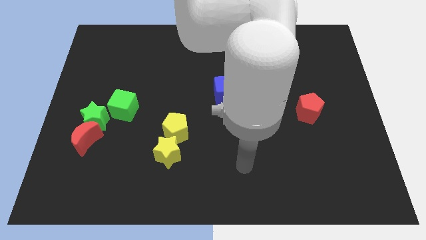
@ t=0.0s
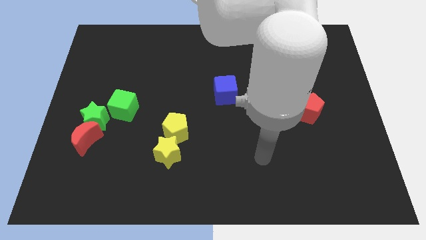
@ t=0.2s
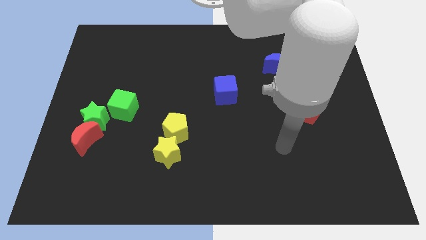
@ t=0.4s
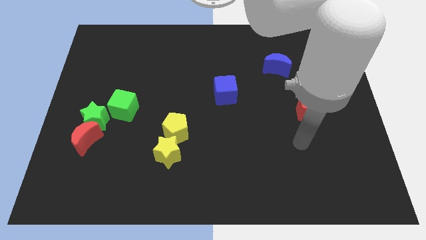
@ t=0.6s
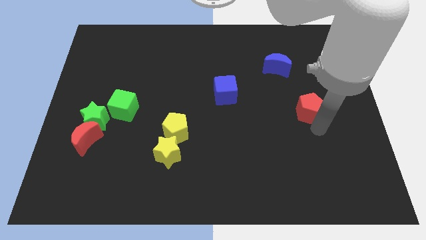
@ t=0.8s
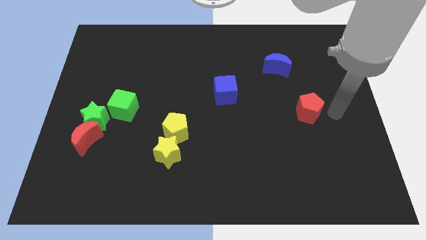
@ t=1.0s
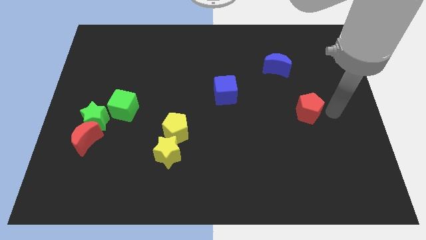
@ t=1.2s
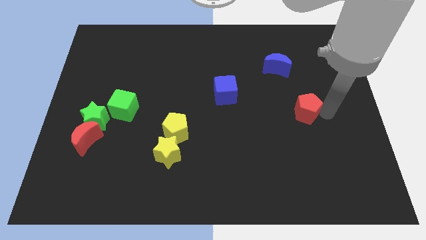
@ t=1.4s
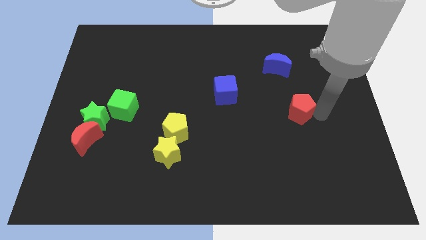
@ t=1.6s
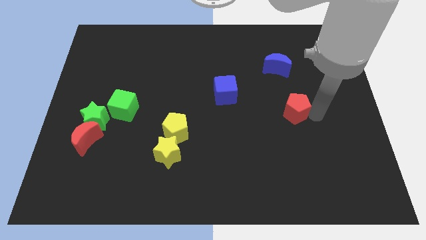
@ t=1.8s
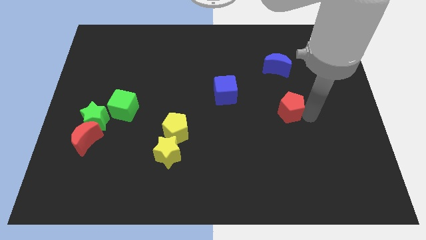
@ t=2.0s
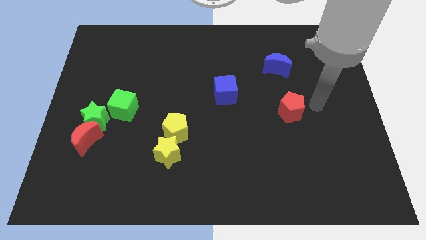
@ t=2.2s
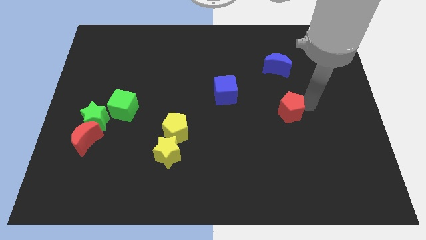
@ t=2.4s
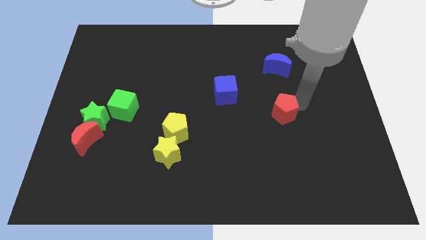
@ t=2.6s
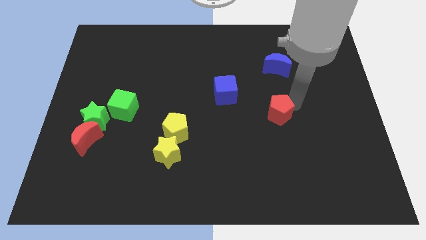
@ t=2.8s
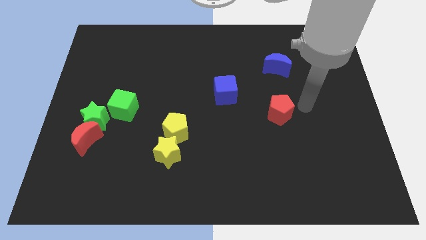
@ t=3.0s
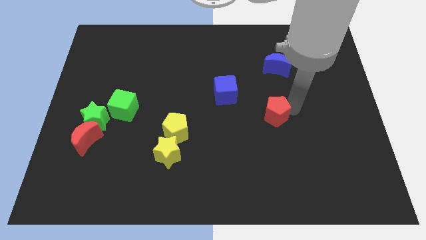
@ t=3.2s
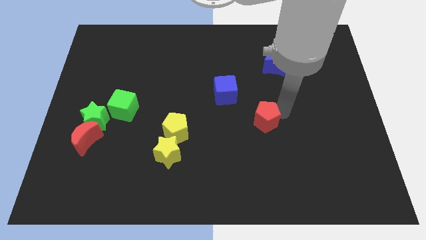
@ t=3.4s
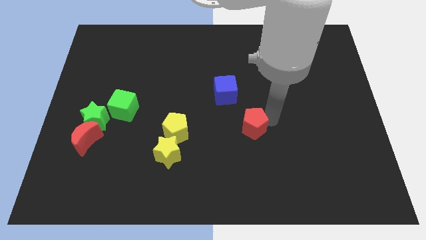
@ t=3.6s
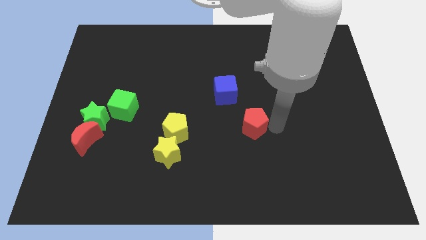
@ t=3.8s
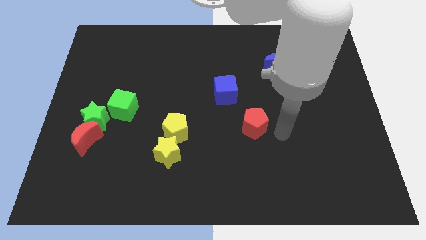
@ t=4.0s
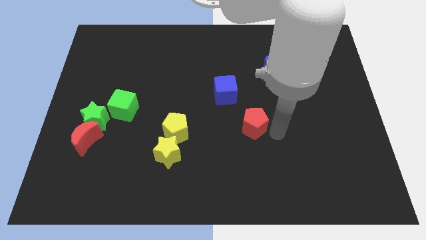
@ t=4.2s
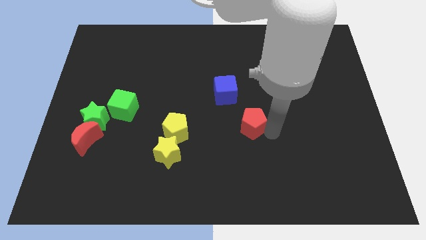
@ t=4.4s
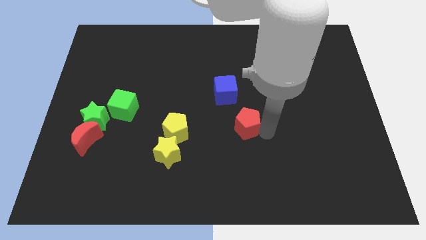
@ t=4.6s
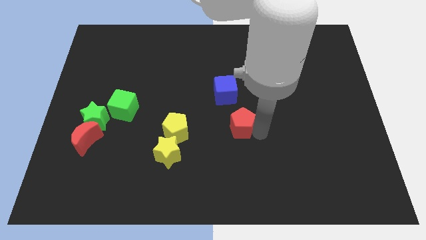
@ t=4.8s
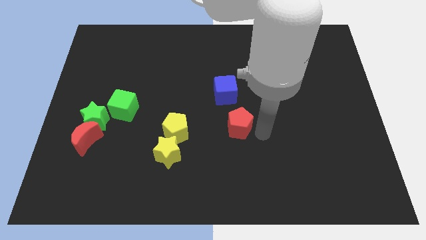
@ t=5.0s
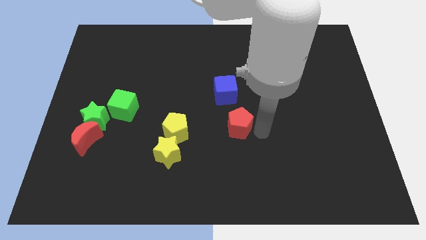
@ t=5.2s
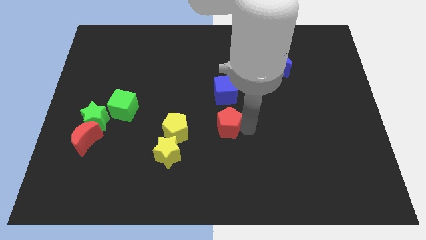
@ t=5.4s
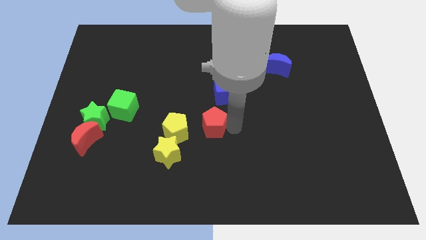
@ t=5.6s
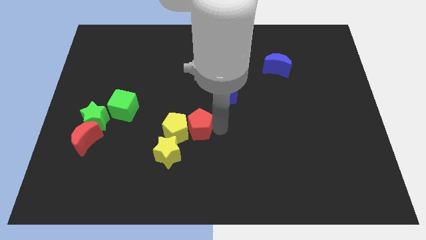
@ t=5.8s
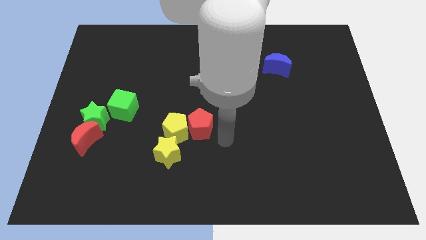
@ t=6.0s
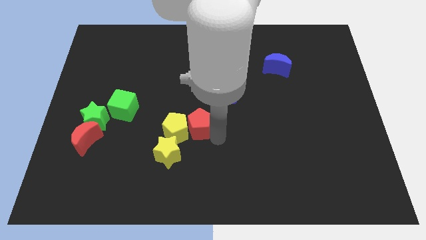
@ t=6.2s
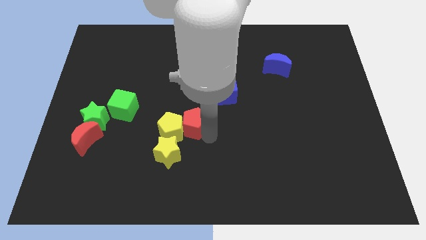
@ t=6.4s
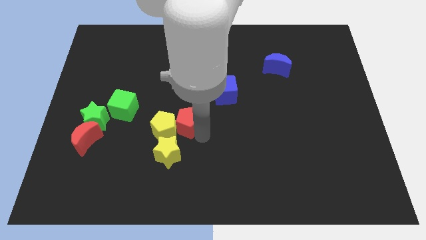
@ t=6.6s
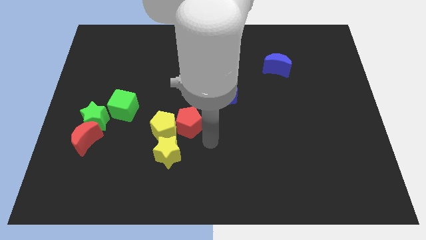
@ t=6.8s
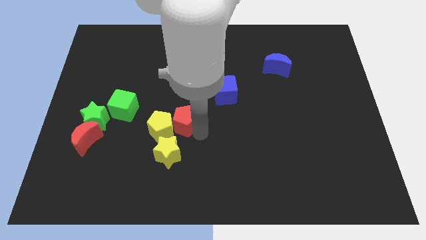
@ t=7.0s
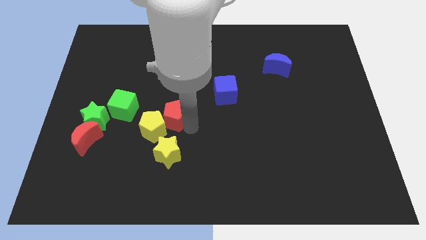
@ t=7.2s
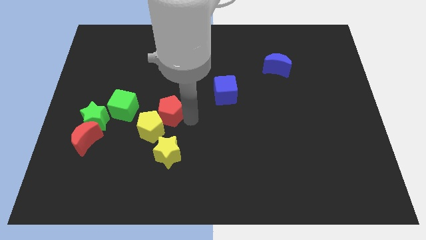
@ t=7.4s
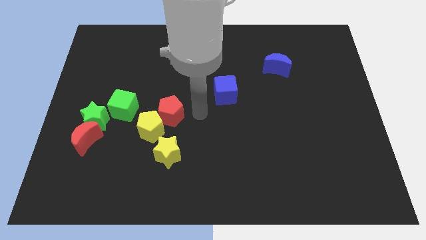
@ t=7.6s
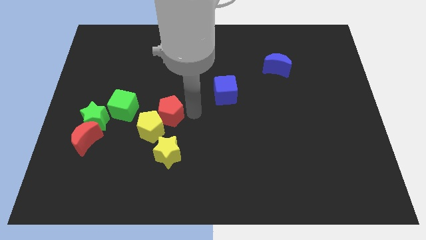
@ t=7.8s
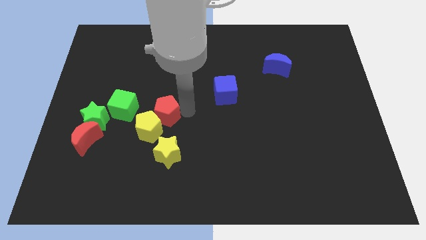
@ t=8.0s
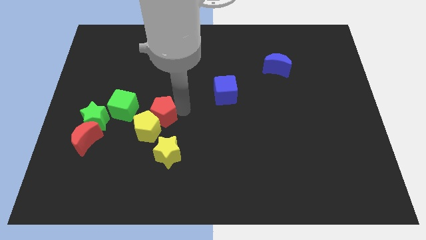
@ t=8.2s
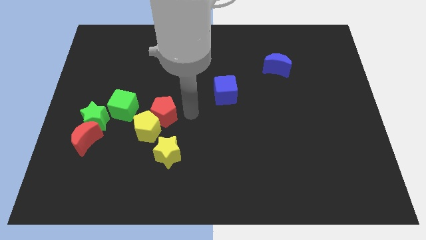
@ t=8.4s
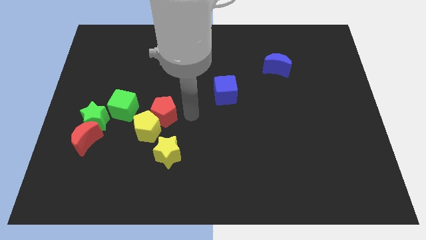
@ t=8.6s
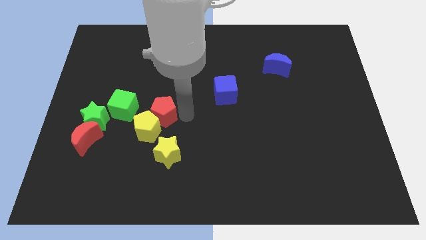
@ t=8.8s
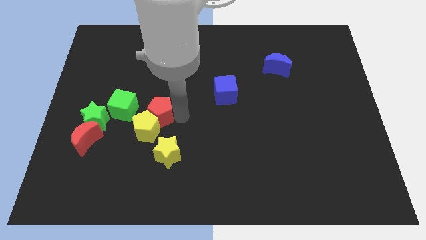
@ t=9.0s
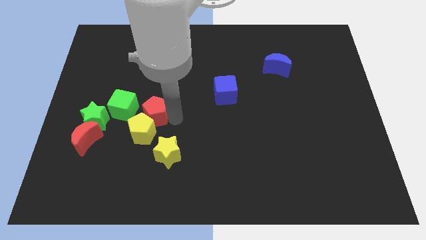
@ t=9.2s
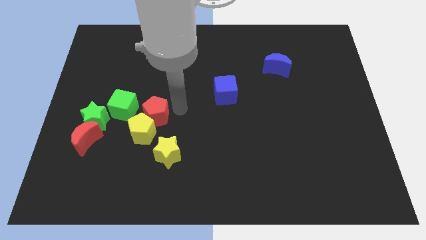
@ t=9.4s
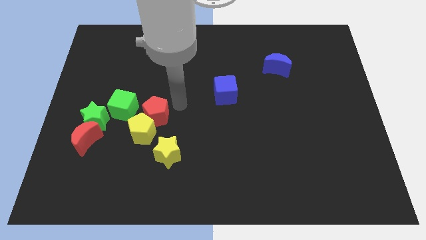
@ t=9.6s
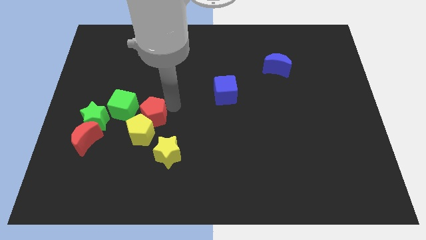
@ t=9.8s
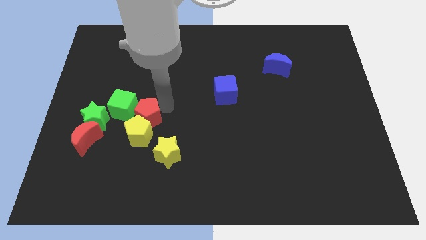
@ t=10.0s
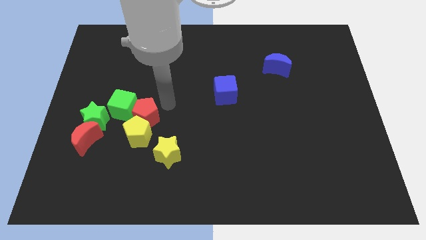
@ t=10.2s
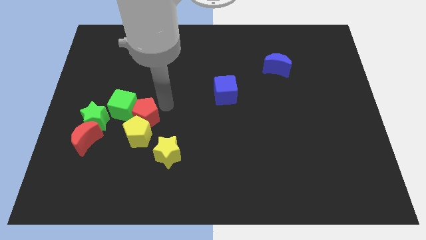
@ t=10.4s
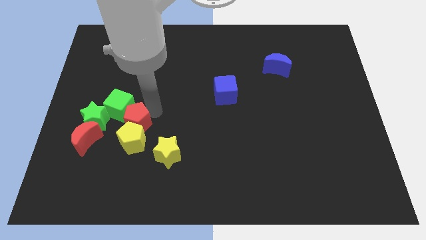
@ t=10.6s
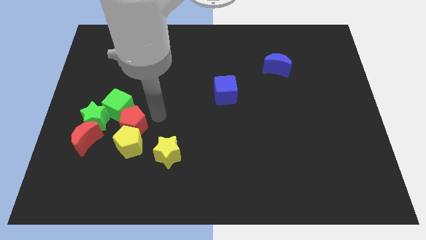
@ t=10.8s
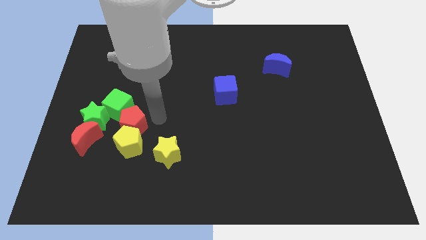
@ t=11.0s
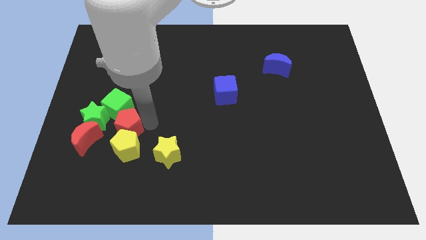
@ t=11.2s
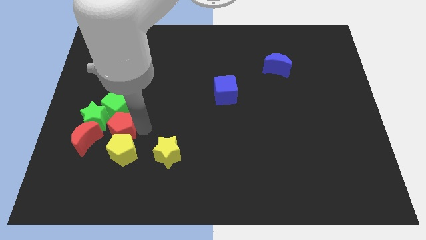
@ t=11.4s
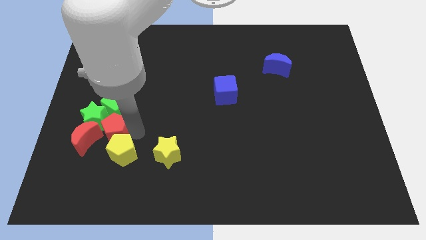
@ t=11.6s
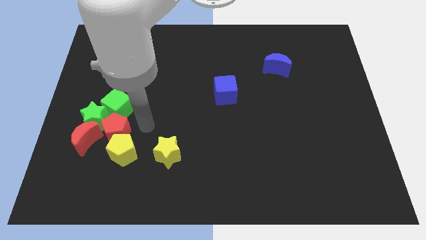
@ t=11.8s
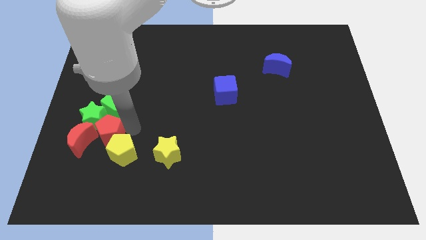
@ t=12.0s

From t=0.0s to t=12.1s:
put the red pentagon to the red moon

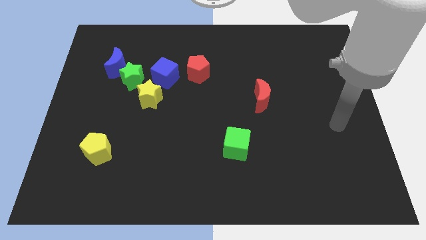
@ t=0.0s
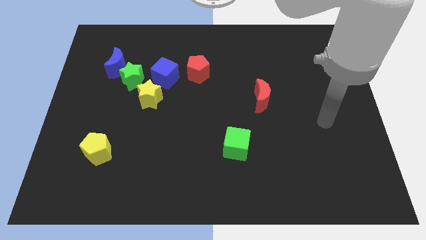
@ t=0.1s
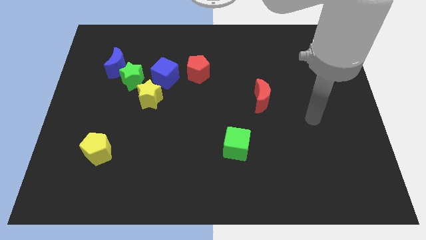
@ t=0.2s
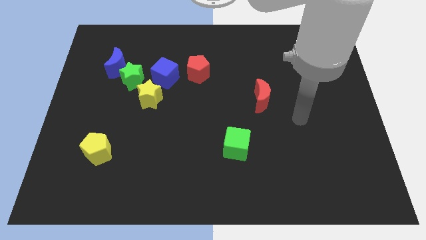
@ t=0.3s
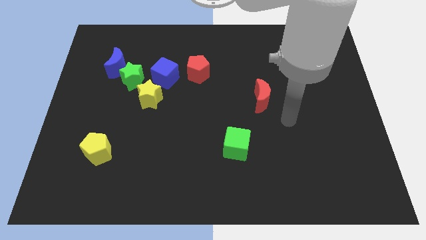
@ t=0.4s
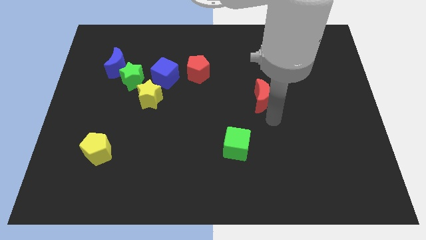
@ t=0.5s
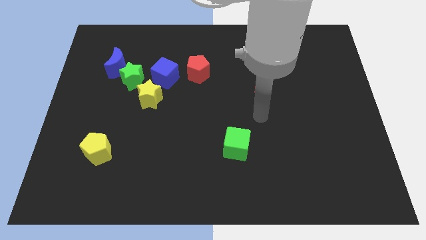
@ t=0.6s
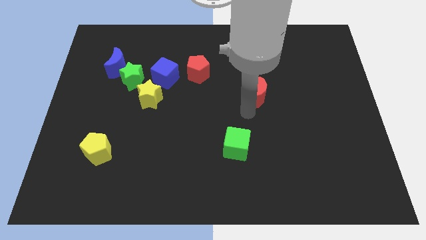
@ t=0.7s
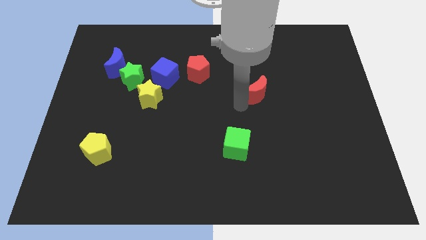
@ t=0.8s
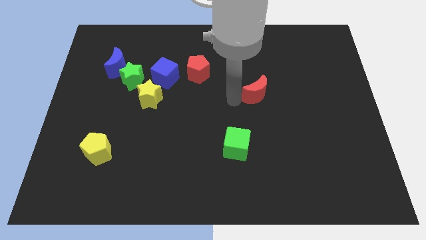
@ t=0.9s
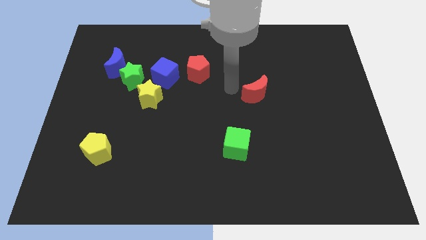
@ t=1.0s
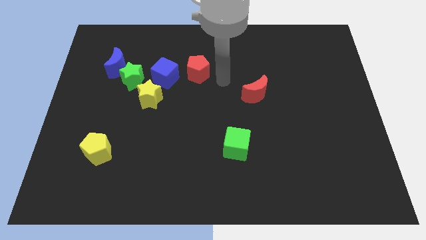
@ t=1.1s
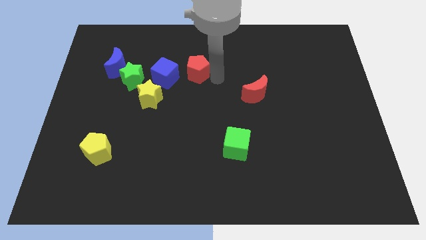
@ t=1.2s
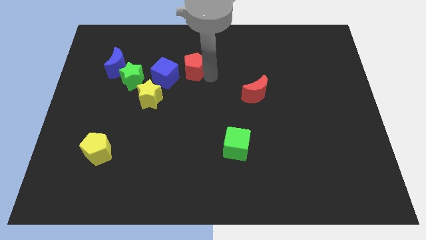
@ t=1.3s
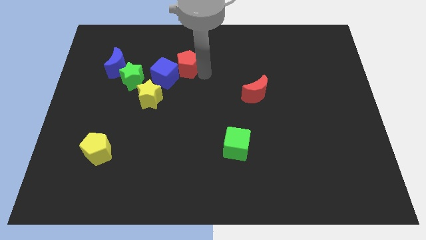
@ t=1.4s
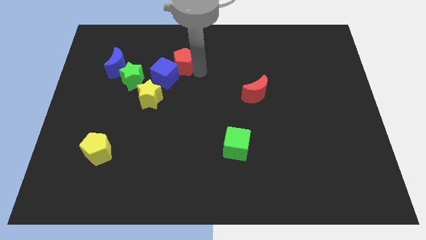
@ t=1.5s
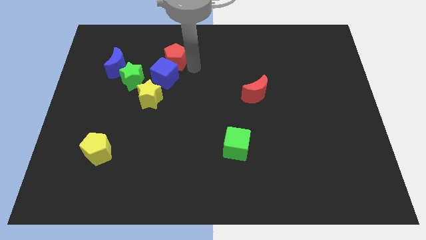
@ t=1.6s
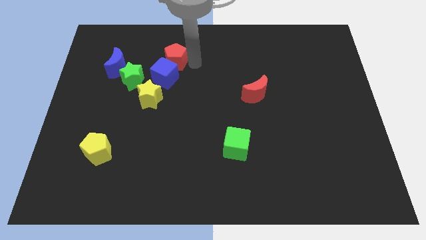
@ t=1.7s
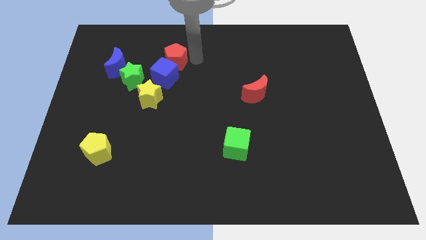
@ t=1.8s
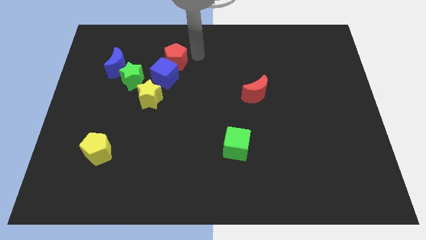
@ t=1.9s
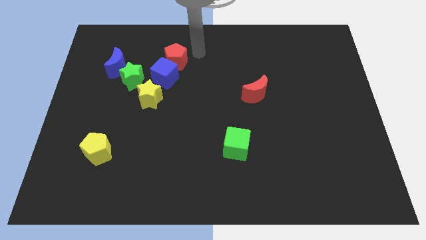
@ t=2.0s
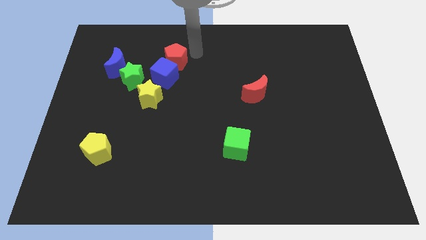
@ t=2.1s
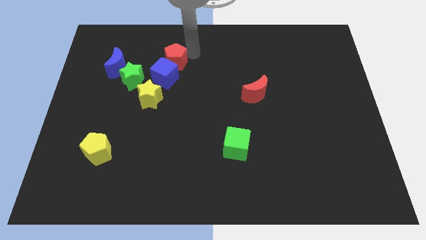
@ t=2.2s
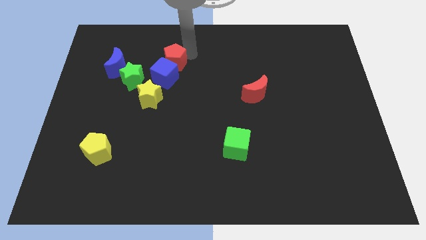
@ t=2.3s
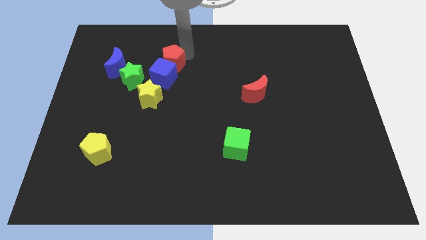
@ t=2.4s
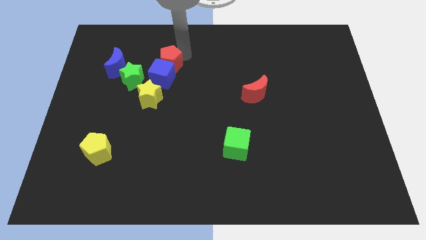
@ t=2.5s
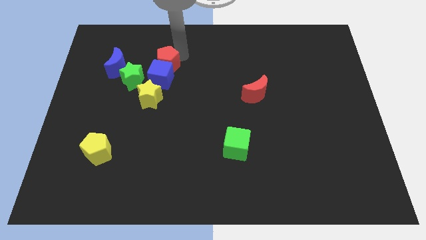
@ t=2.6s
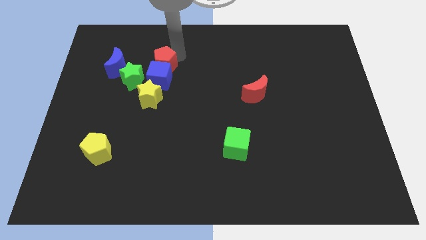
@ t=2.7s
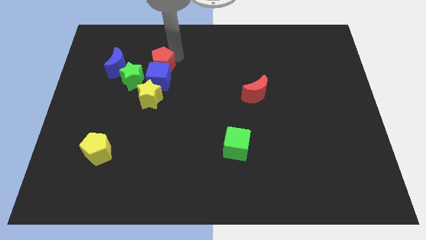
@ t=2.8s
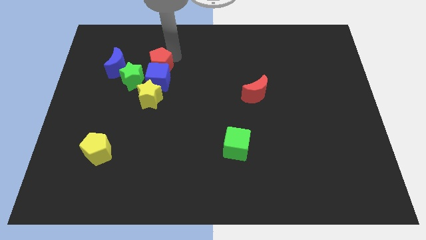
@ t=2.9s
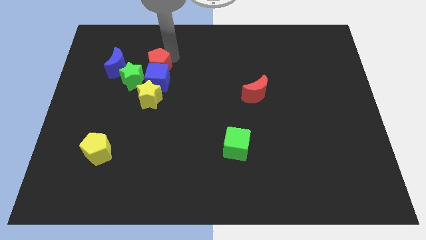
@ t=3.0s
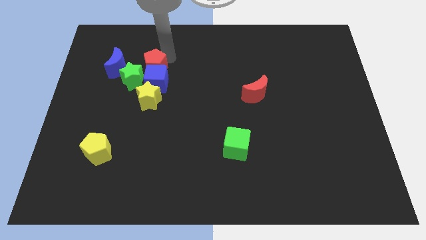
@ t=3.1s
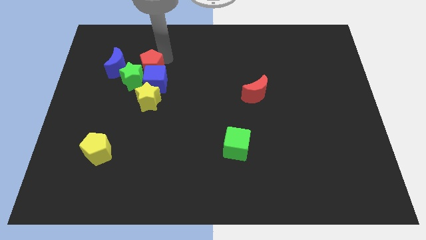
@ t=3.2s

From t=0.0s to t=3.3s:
push the red pentagon to the green star
